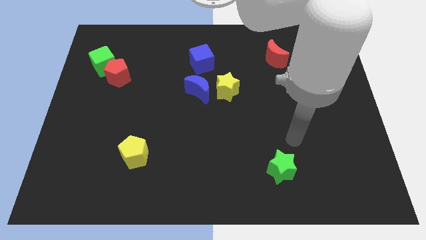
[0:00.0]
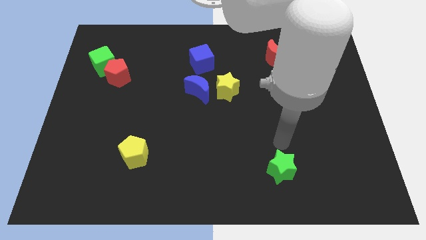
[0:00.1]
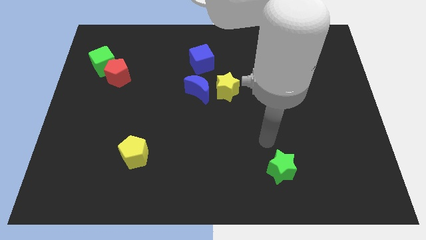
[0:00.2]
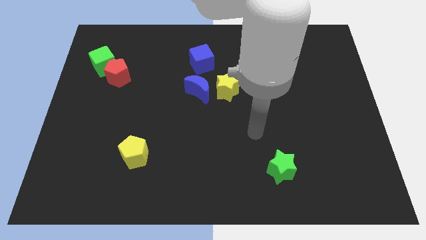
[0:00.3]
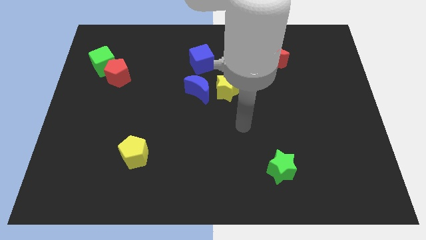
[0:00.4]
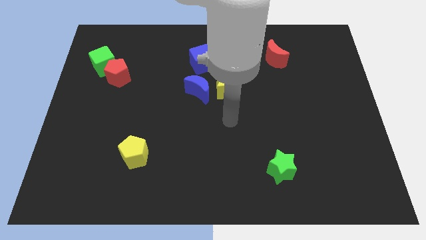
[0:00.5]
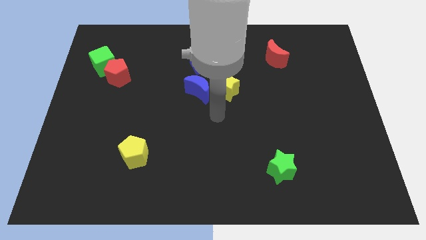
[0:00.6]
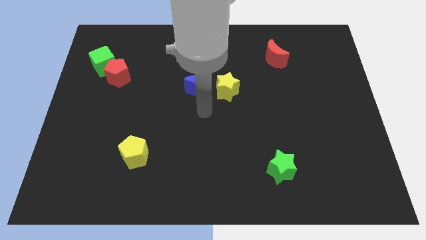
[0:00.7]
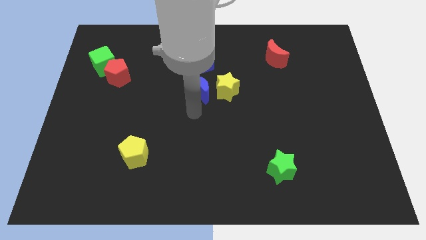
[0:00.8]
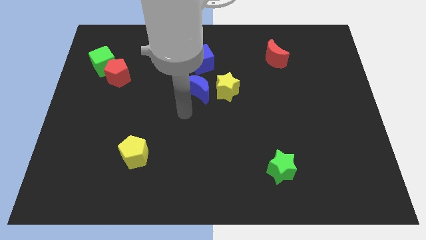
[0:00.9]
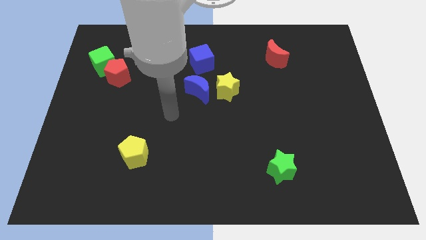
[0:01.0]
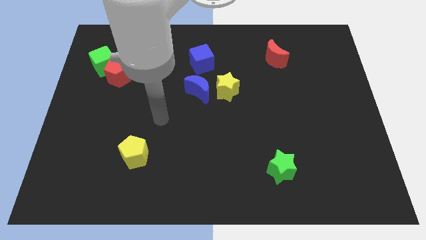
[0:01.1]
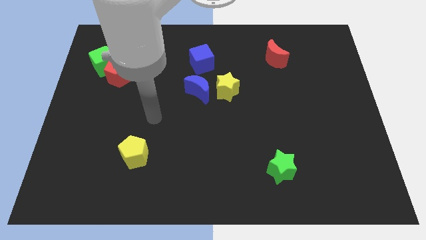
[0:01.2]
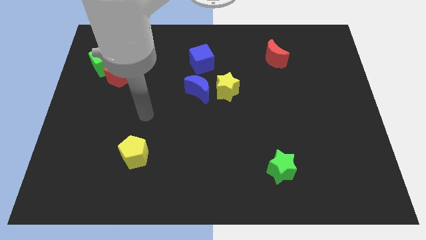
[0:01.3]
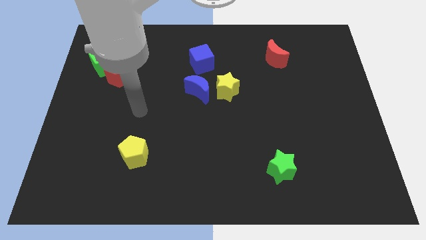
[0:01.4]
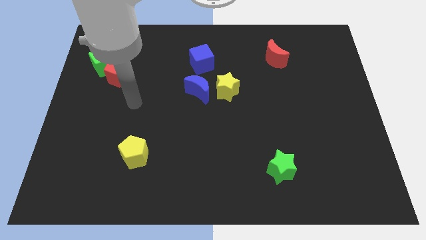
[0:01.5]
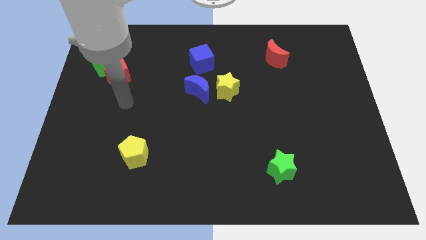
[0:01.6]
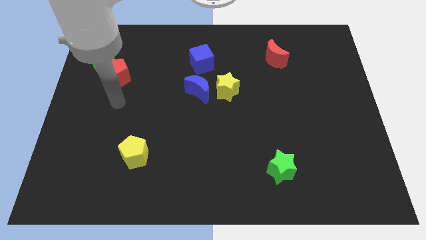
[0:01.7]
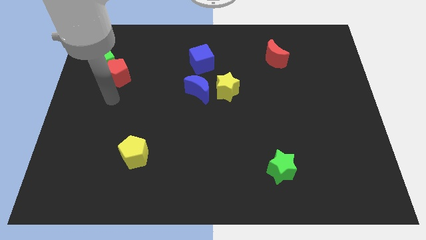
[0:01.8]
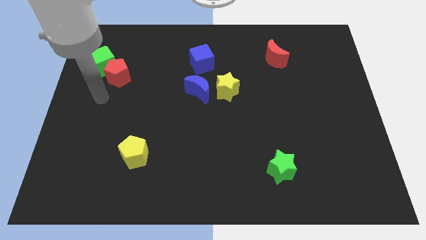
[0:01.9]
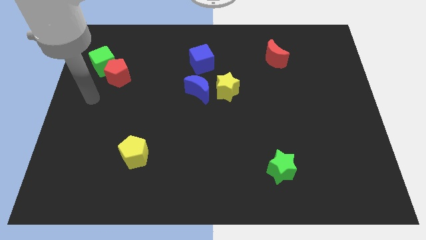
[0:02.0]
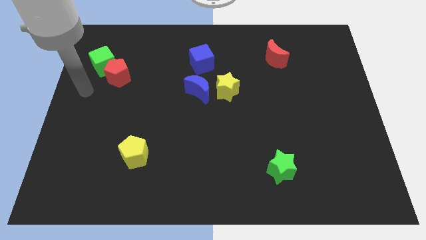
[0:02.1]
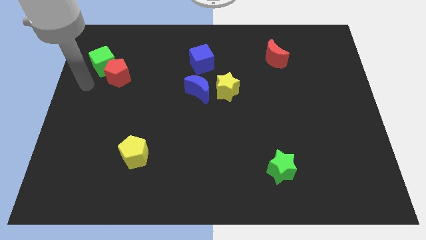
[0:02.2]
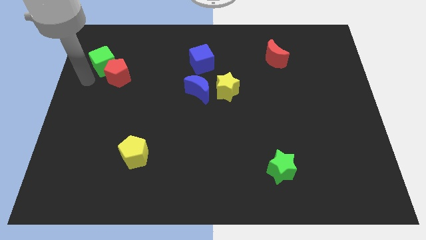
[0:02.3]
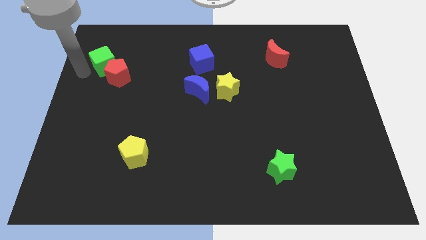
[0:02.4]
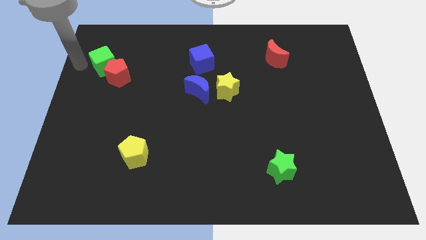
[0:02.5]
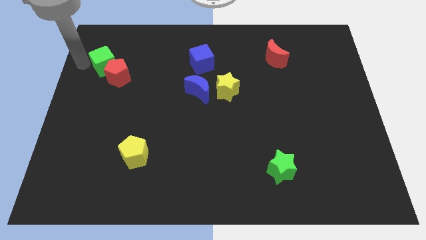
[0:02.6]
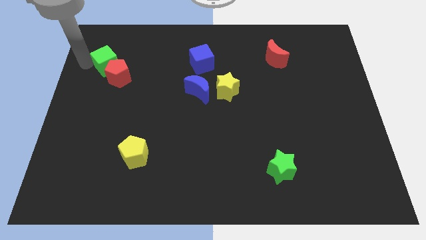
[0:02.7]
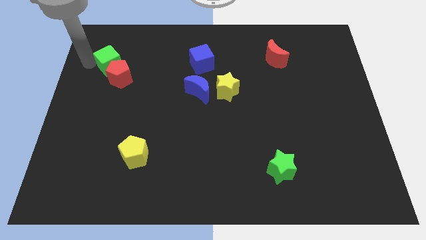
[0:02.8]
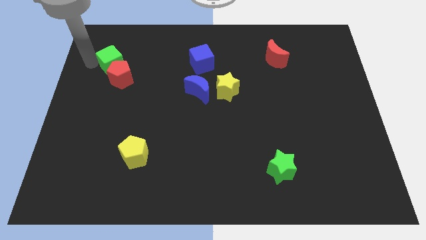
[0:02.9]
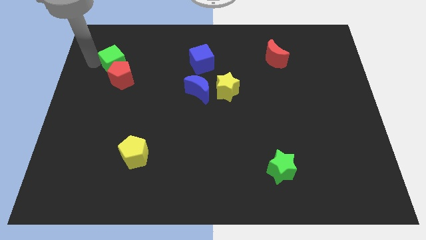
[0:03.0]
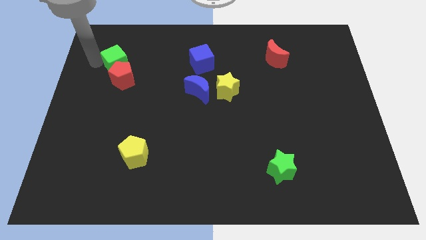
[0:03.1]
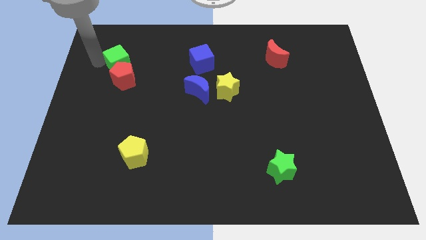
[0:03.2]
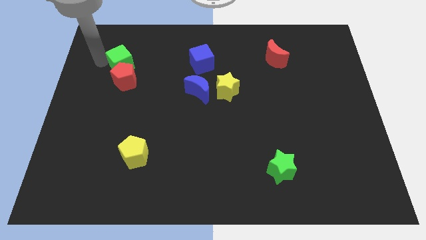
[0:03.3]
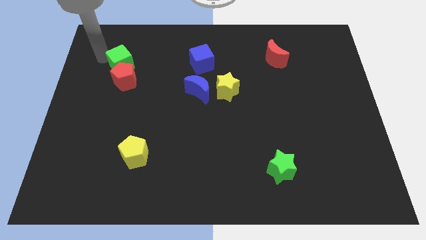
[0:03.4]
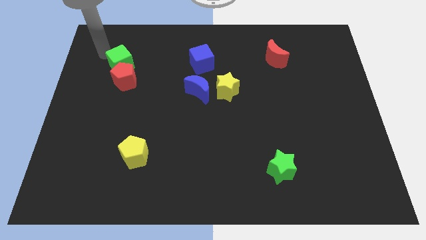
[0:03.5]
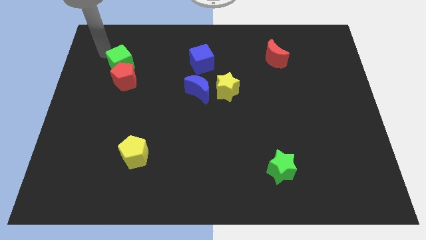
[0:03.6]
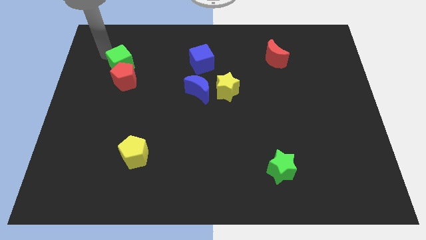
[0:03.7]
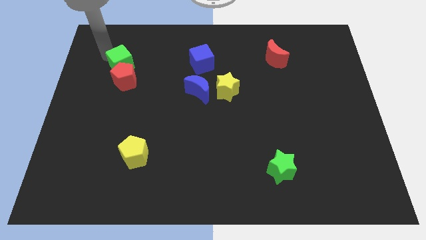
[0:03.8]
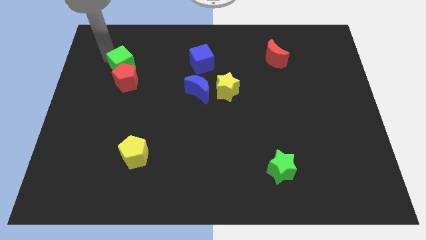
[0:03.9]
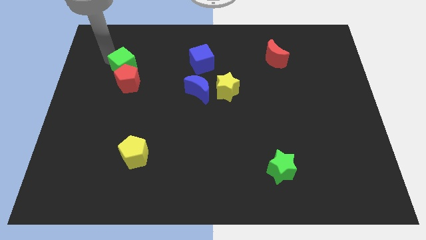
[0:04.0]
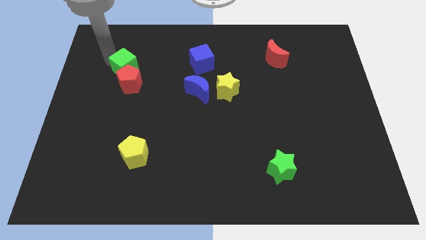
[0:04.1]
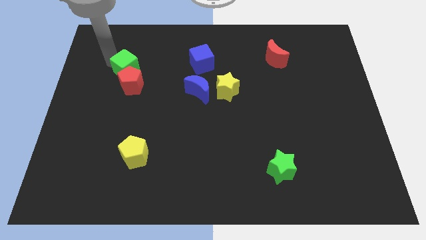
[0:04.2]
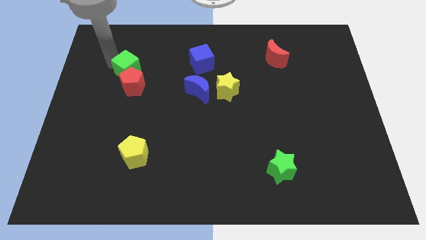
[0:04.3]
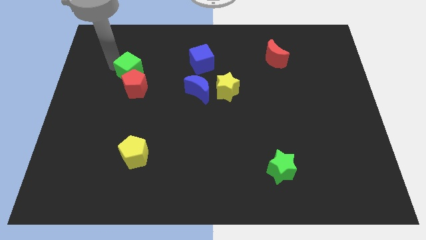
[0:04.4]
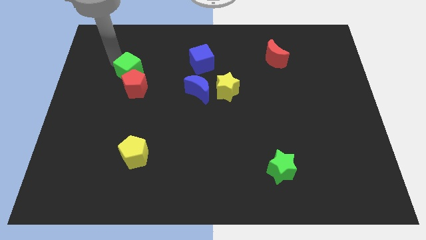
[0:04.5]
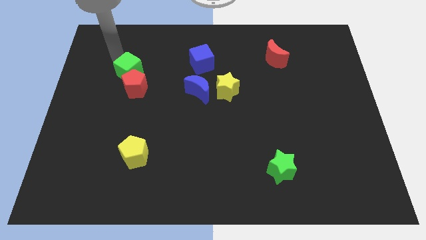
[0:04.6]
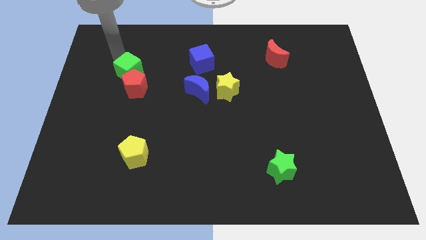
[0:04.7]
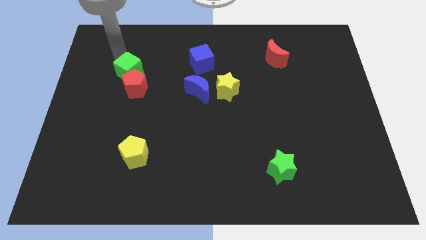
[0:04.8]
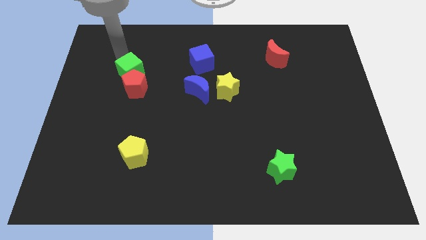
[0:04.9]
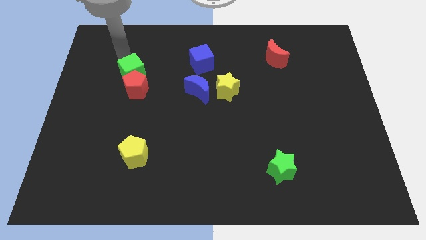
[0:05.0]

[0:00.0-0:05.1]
move the green cube a little bit downwards and right

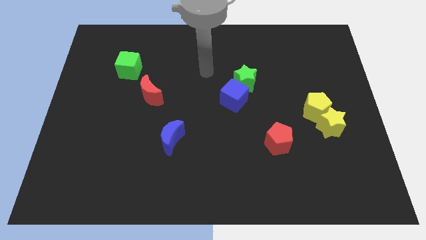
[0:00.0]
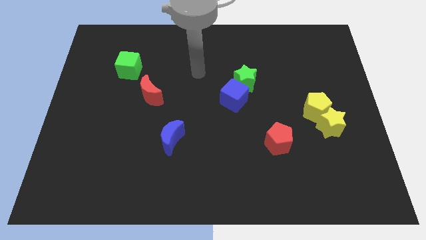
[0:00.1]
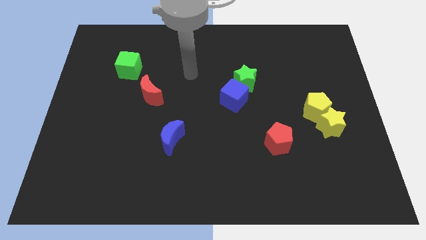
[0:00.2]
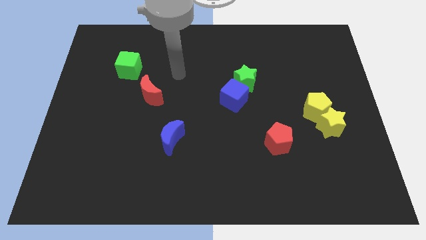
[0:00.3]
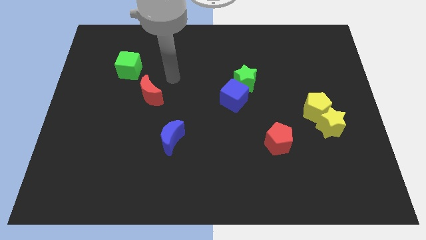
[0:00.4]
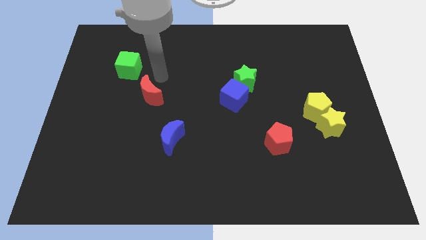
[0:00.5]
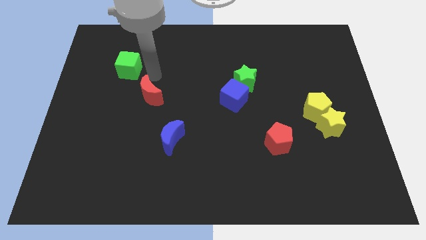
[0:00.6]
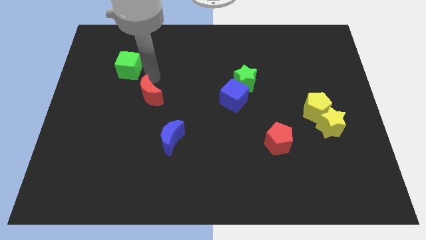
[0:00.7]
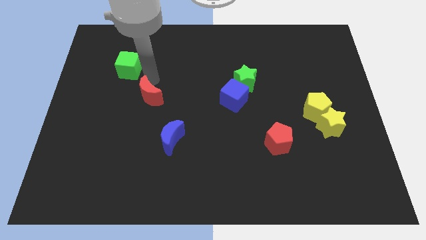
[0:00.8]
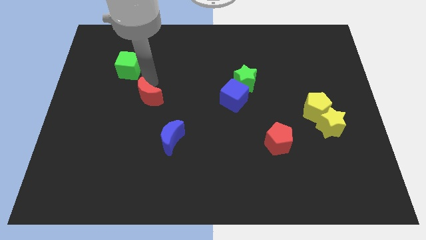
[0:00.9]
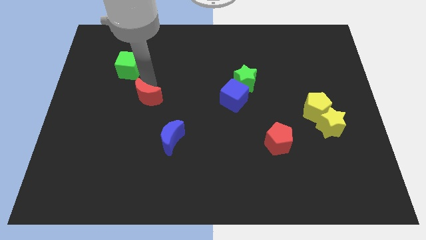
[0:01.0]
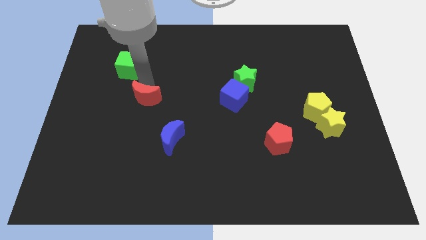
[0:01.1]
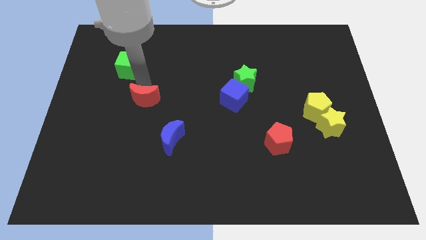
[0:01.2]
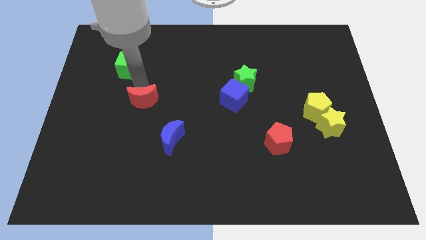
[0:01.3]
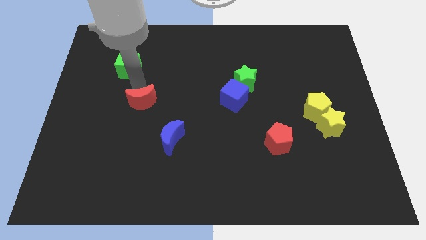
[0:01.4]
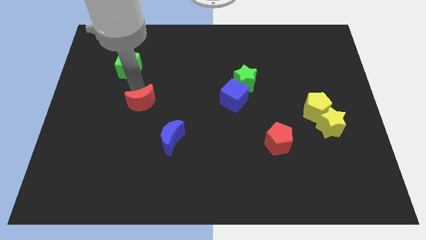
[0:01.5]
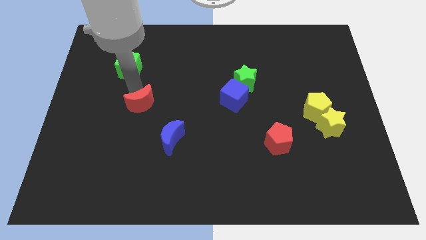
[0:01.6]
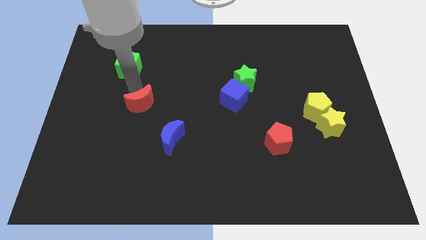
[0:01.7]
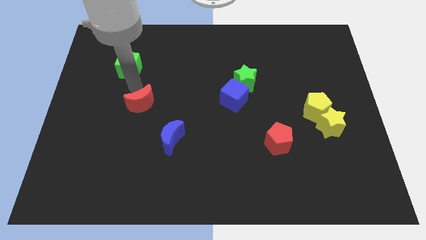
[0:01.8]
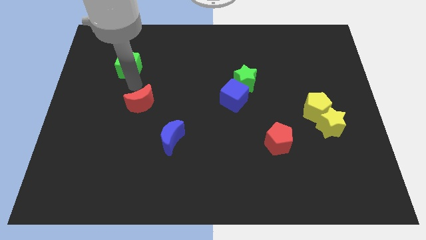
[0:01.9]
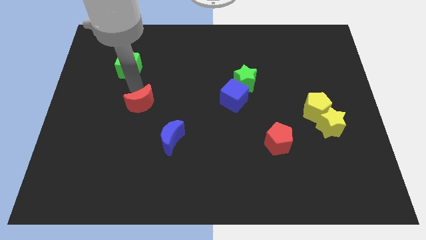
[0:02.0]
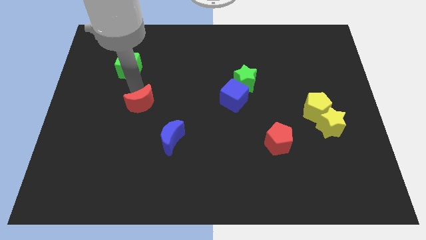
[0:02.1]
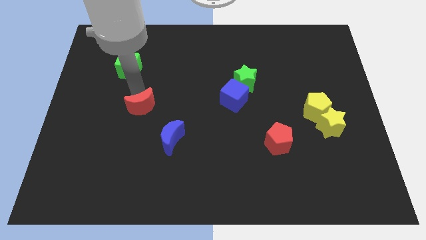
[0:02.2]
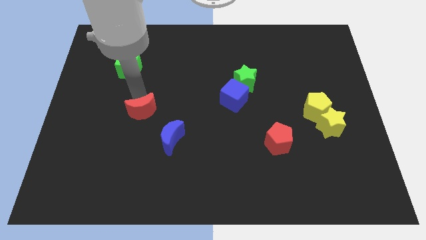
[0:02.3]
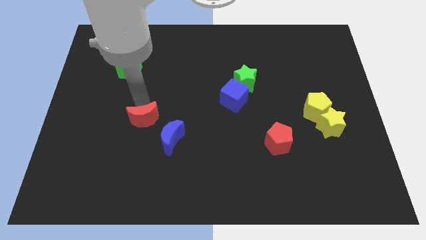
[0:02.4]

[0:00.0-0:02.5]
push the red moon a little bit down

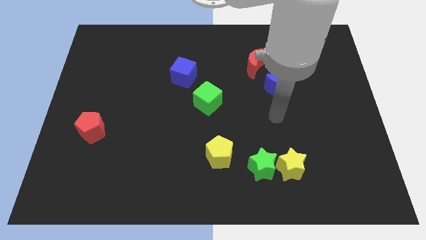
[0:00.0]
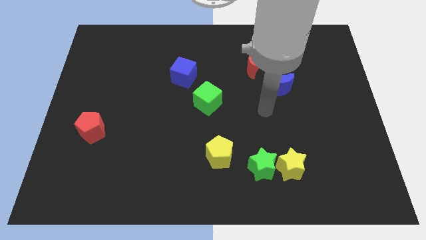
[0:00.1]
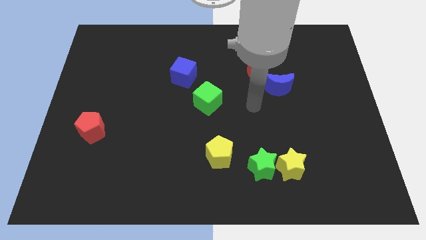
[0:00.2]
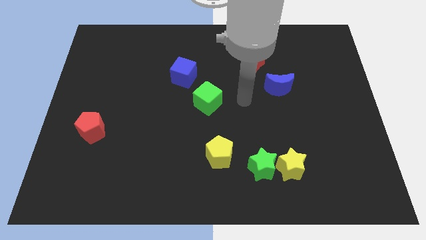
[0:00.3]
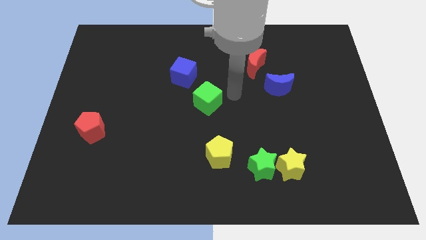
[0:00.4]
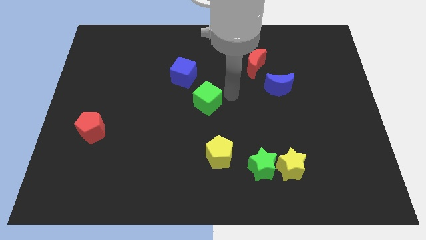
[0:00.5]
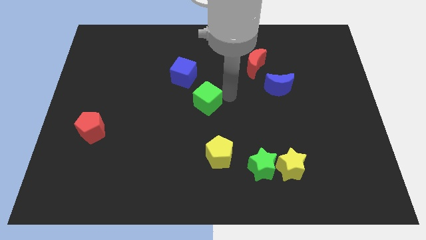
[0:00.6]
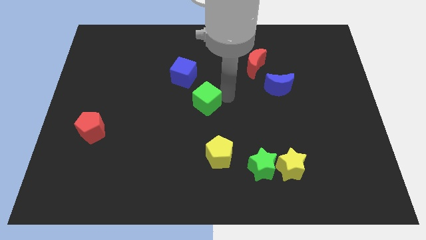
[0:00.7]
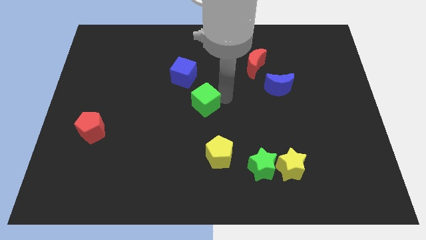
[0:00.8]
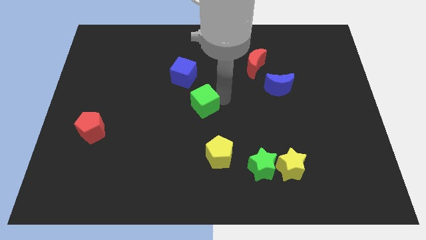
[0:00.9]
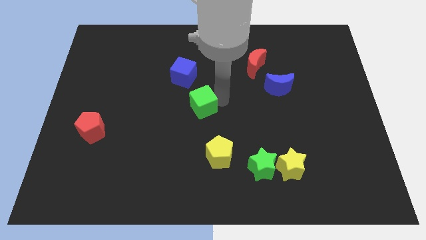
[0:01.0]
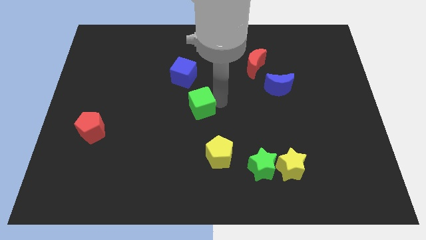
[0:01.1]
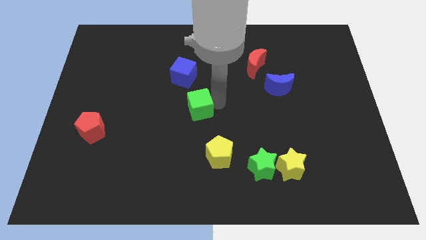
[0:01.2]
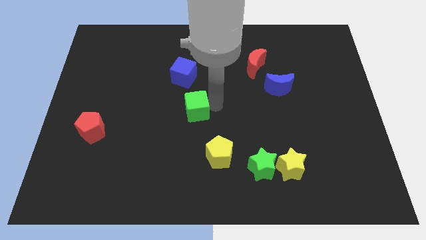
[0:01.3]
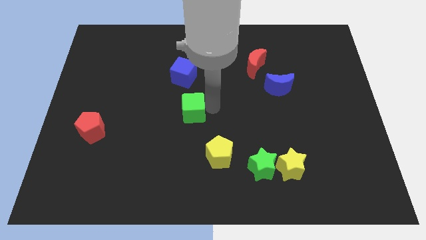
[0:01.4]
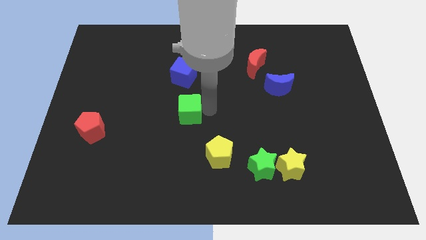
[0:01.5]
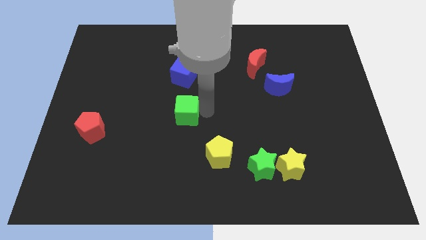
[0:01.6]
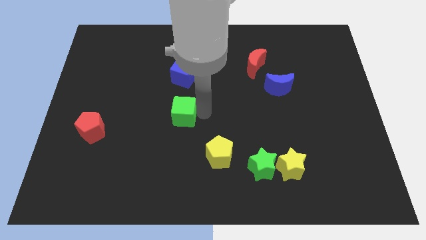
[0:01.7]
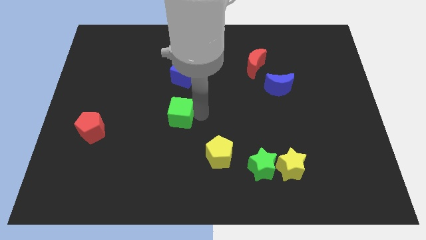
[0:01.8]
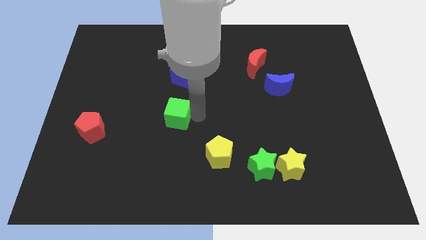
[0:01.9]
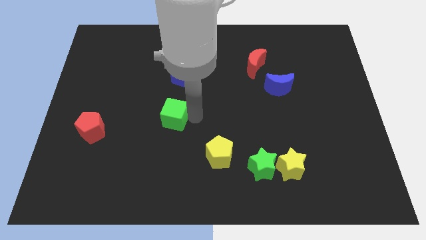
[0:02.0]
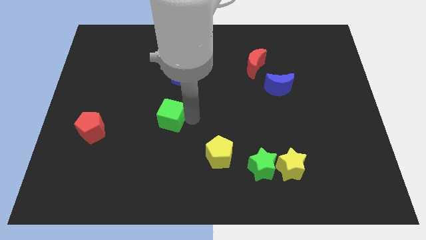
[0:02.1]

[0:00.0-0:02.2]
push the green cube a bit to the left
